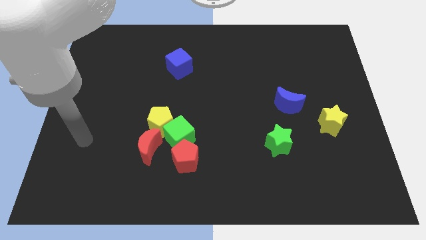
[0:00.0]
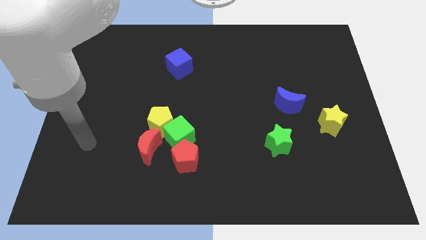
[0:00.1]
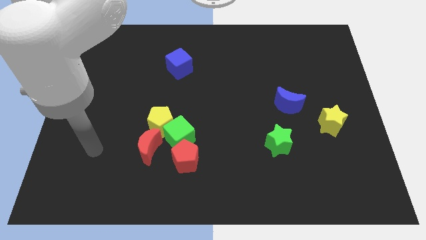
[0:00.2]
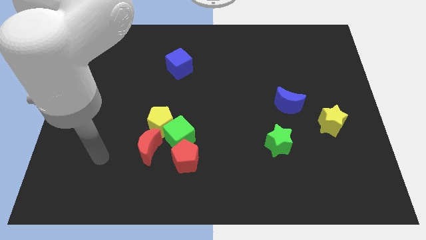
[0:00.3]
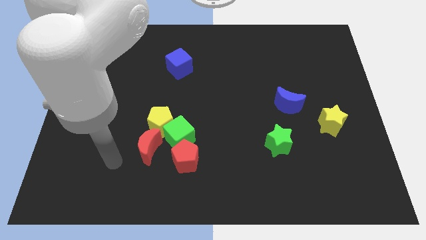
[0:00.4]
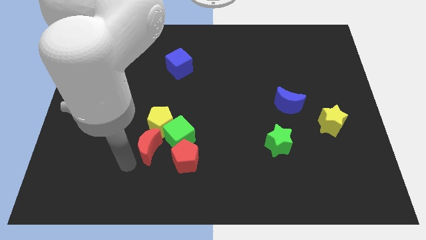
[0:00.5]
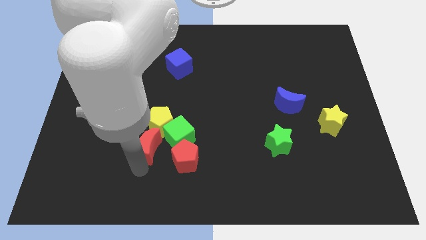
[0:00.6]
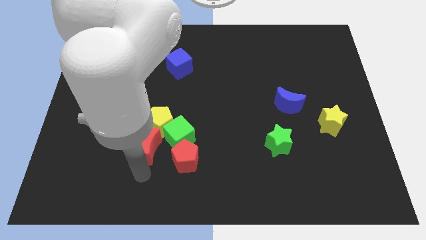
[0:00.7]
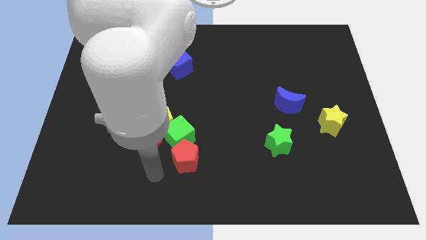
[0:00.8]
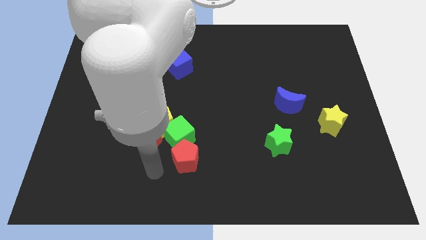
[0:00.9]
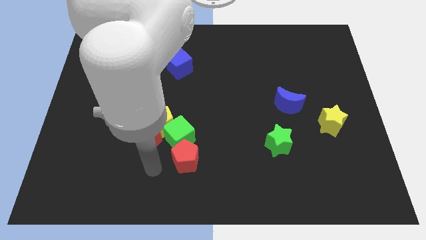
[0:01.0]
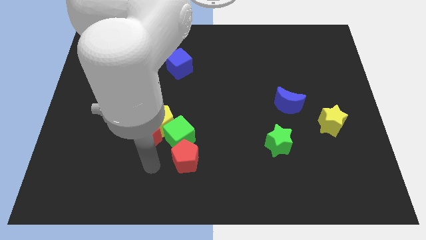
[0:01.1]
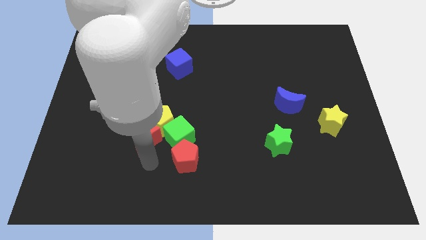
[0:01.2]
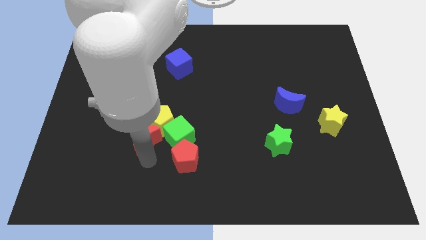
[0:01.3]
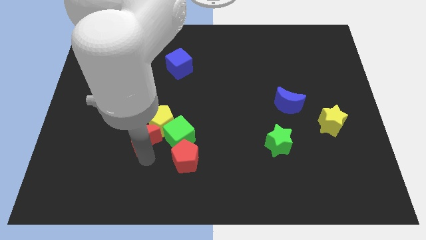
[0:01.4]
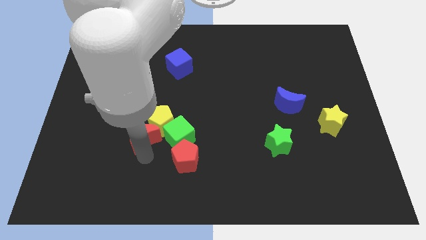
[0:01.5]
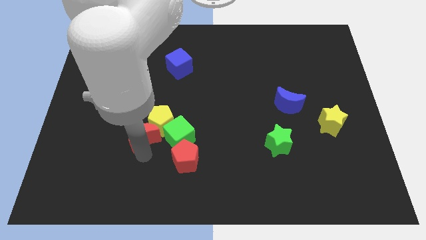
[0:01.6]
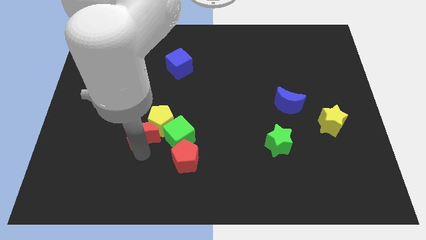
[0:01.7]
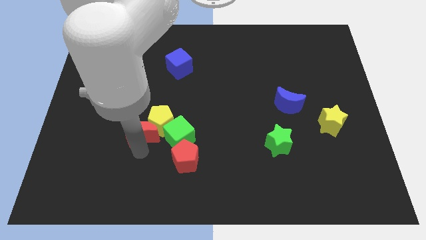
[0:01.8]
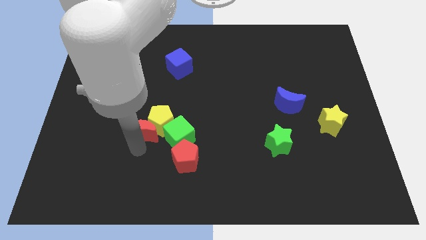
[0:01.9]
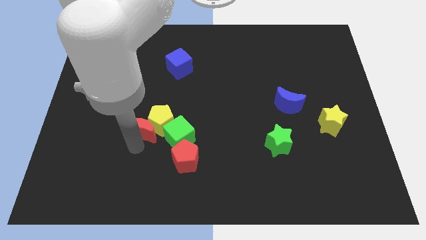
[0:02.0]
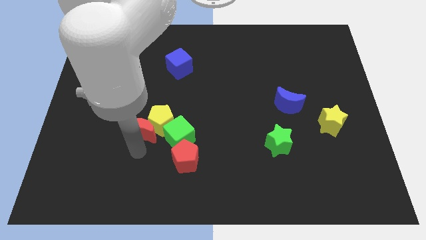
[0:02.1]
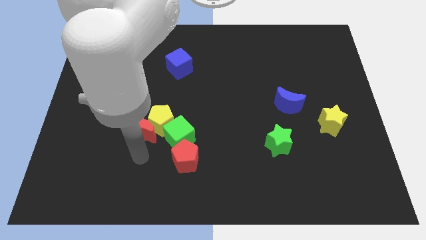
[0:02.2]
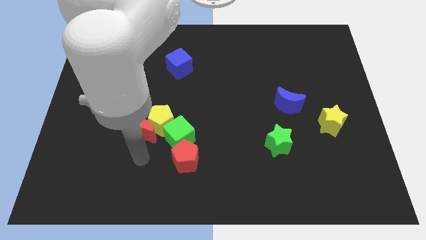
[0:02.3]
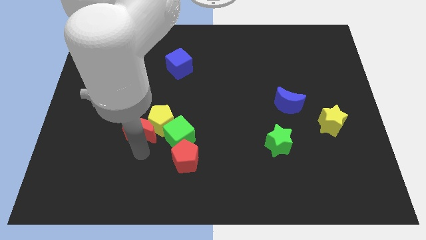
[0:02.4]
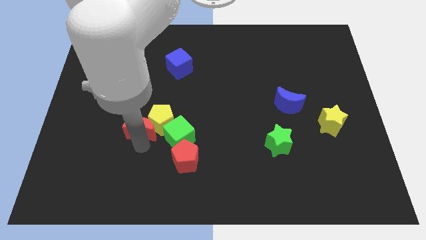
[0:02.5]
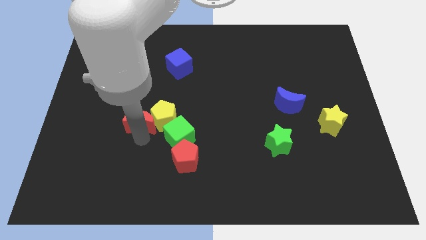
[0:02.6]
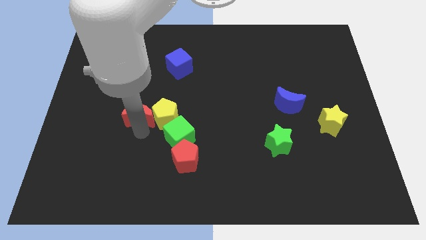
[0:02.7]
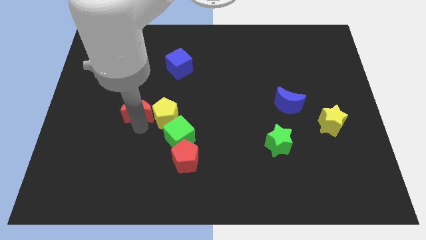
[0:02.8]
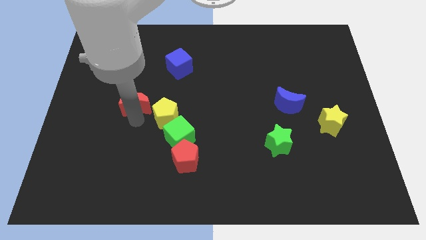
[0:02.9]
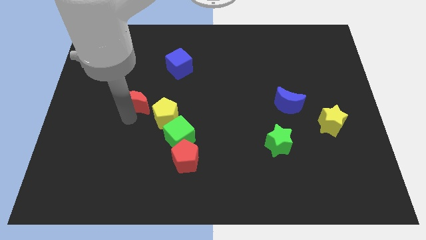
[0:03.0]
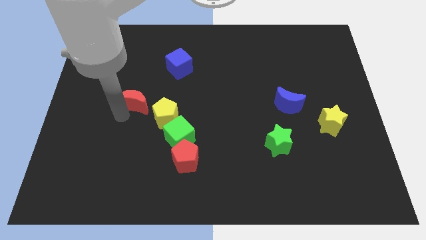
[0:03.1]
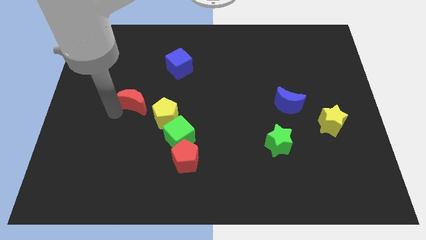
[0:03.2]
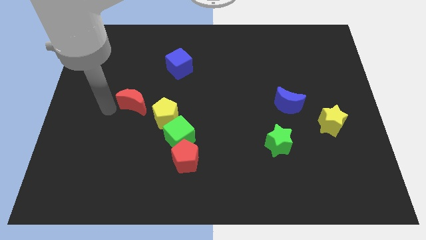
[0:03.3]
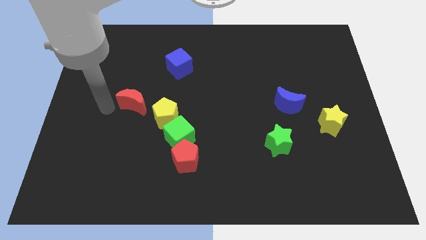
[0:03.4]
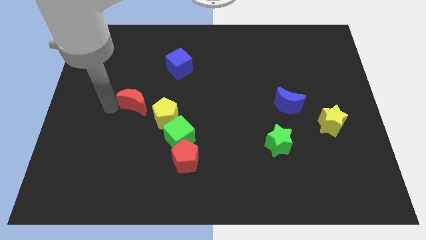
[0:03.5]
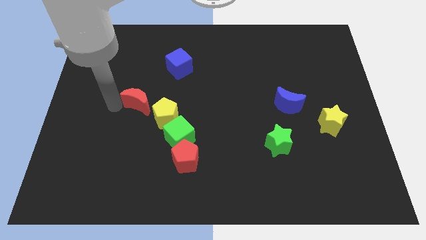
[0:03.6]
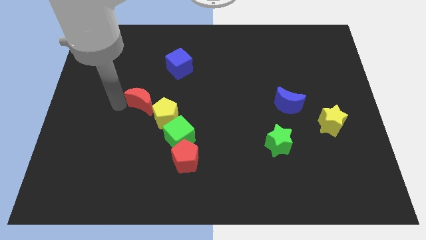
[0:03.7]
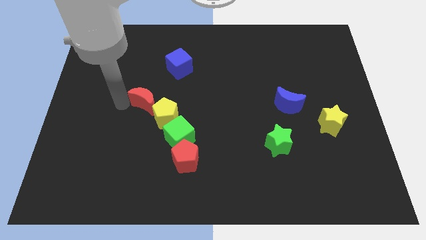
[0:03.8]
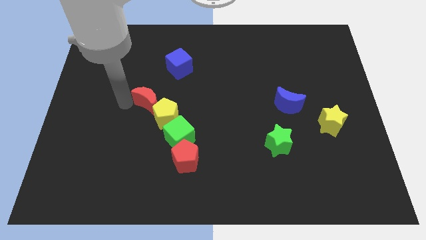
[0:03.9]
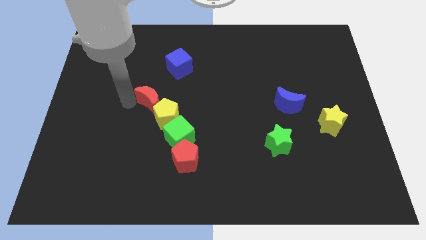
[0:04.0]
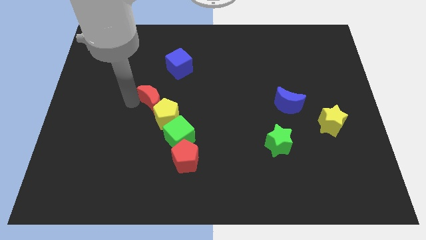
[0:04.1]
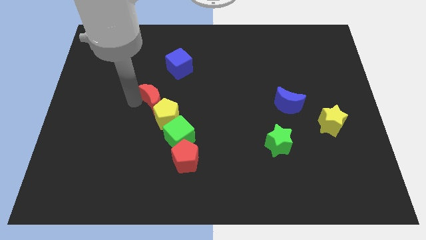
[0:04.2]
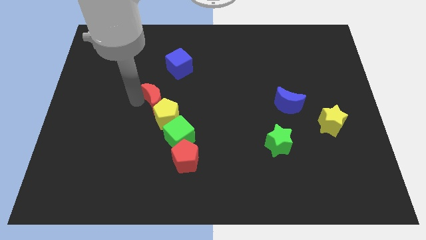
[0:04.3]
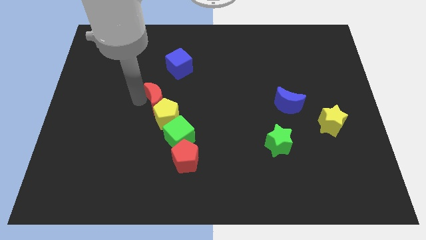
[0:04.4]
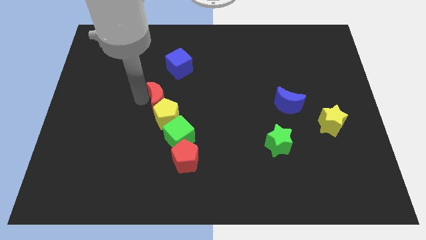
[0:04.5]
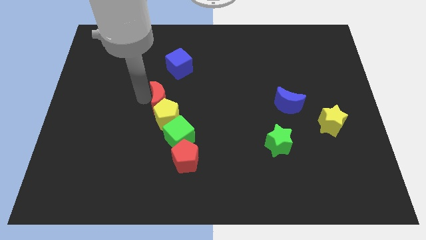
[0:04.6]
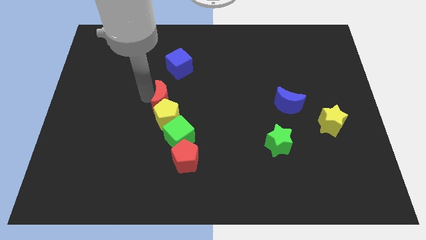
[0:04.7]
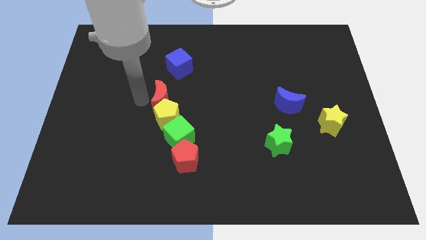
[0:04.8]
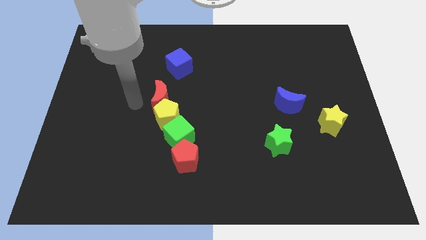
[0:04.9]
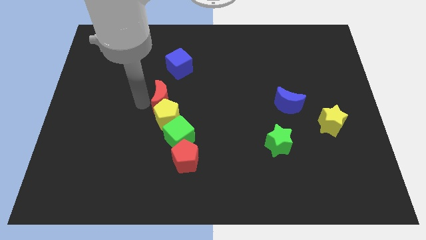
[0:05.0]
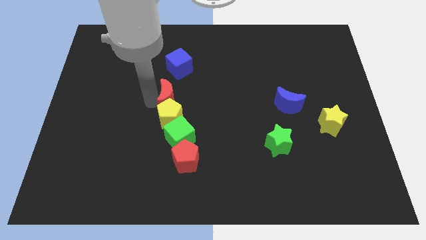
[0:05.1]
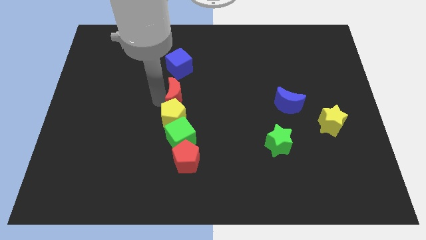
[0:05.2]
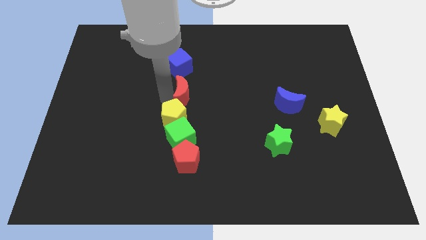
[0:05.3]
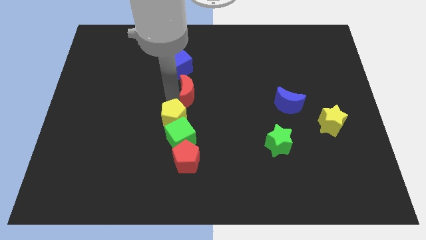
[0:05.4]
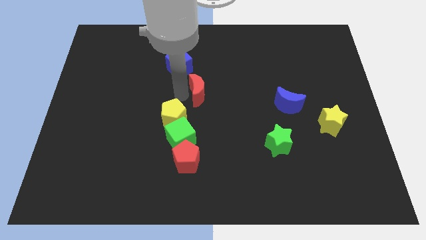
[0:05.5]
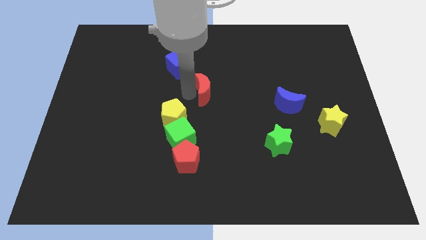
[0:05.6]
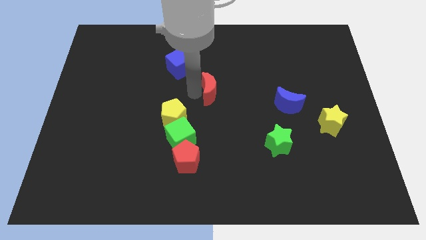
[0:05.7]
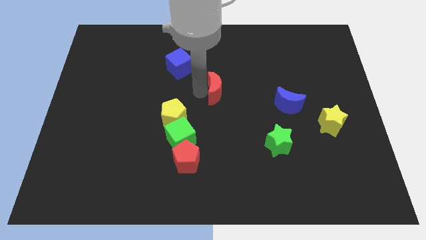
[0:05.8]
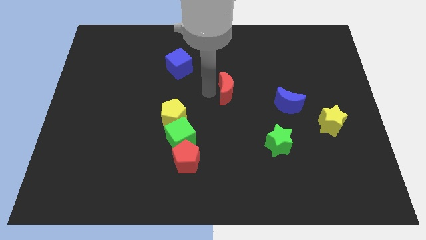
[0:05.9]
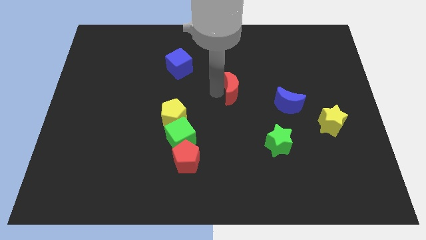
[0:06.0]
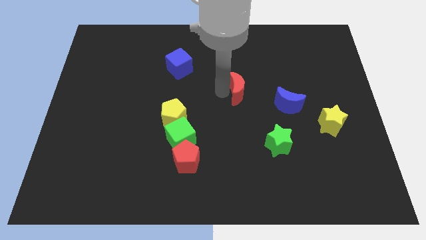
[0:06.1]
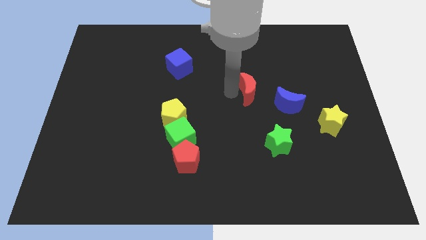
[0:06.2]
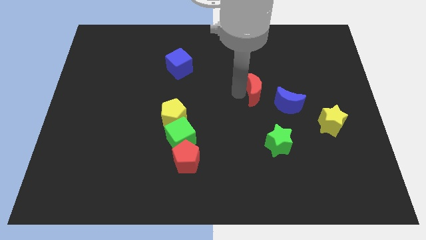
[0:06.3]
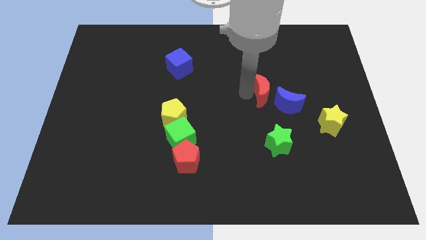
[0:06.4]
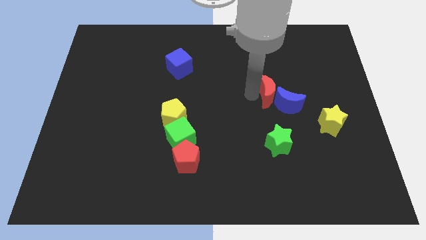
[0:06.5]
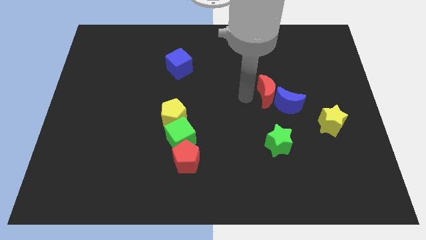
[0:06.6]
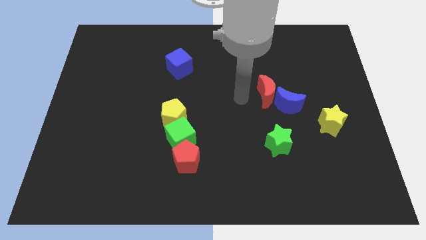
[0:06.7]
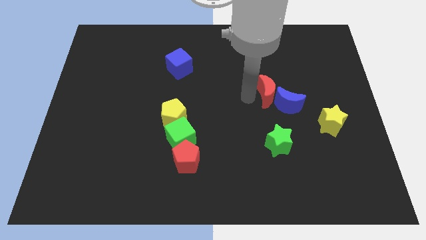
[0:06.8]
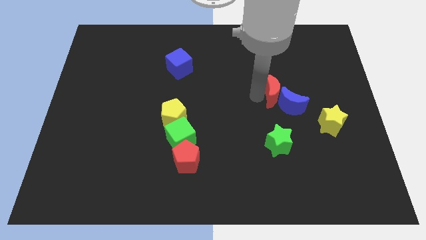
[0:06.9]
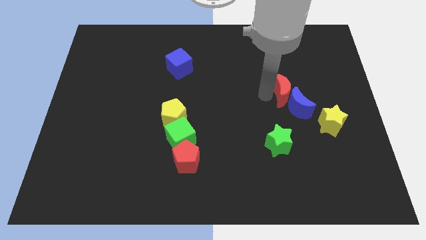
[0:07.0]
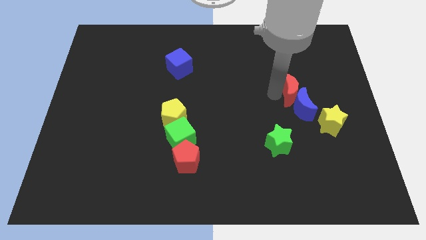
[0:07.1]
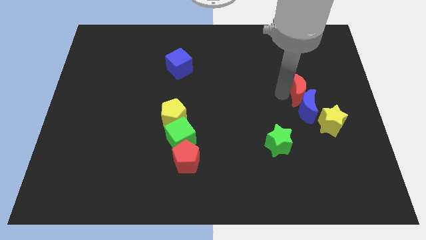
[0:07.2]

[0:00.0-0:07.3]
move the red moon to the top right side of the blue moon
